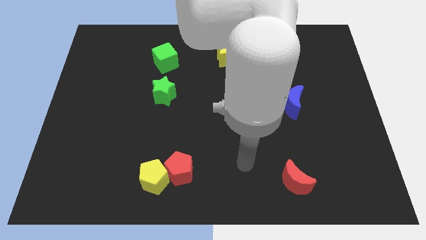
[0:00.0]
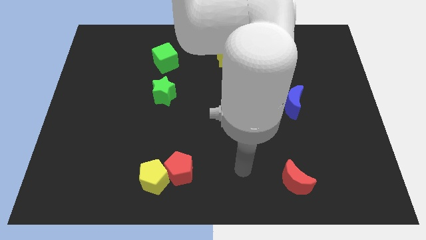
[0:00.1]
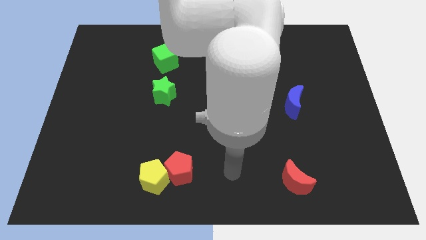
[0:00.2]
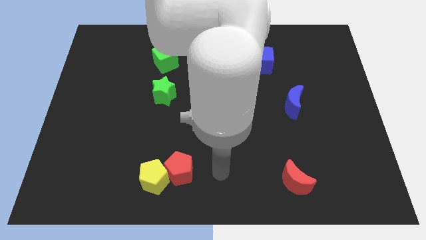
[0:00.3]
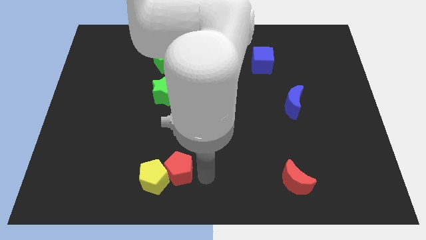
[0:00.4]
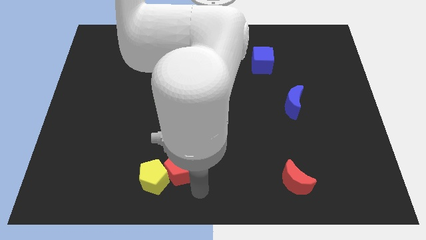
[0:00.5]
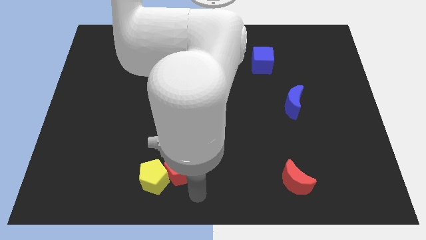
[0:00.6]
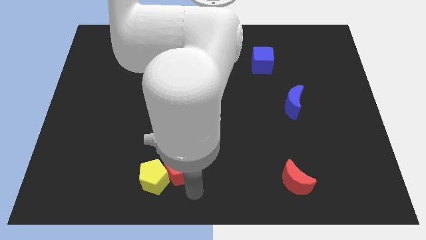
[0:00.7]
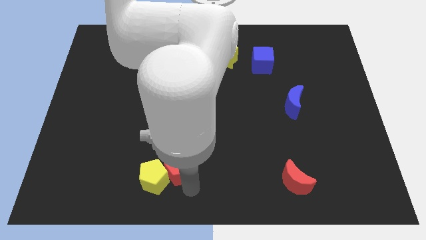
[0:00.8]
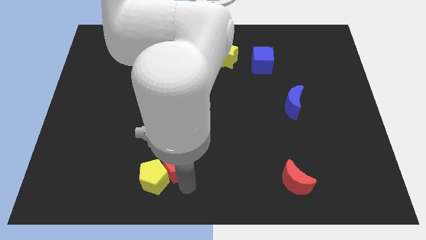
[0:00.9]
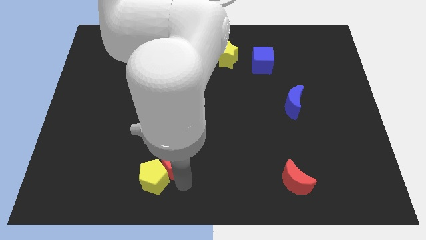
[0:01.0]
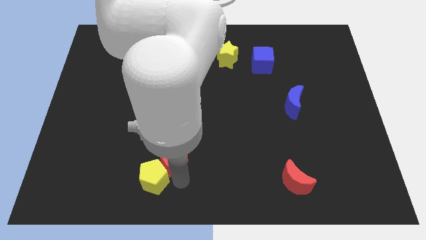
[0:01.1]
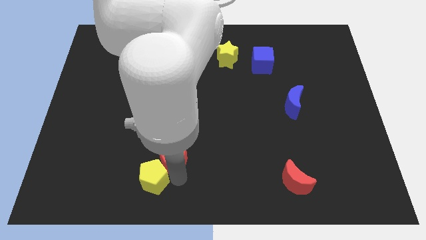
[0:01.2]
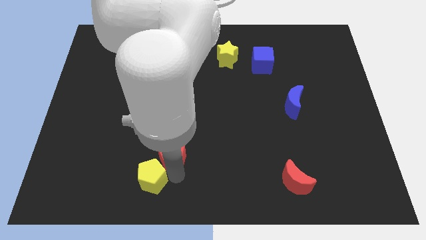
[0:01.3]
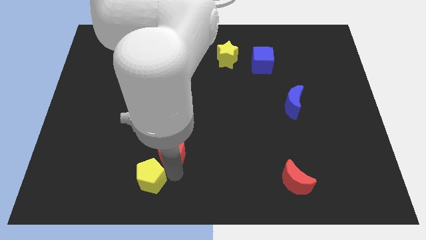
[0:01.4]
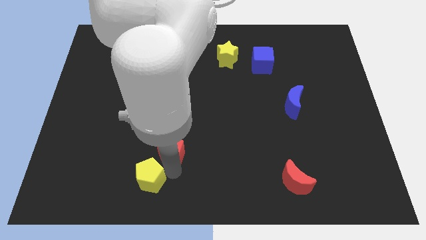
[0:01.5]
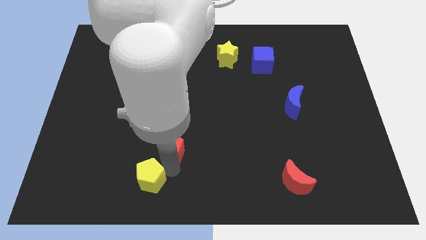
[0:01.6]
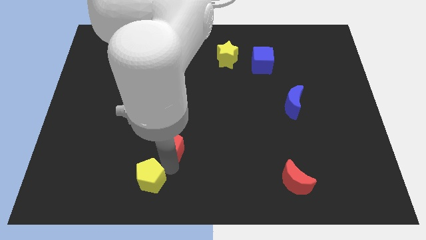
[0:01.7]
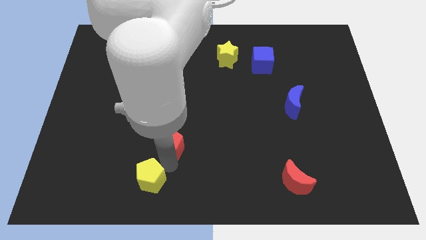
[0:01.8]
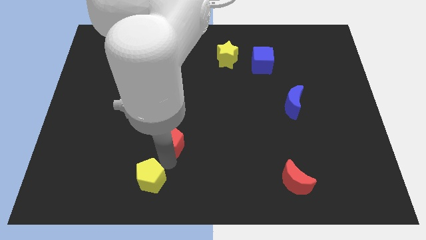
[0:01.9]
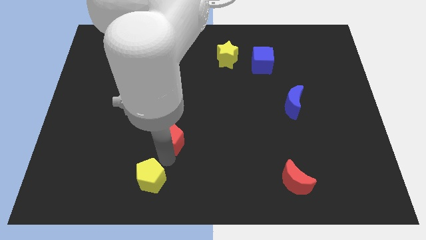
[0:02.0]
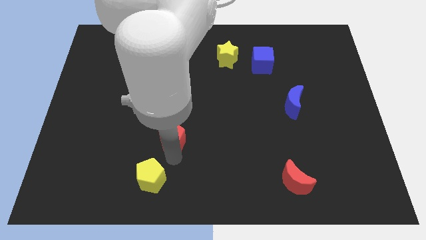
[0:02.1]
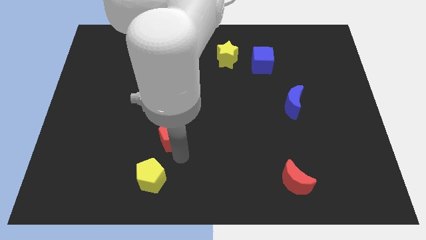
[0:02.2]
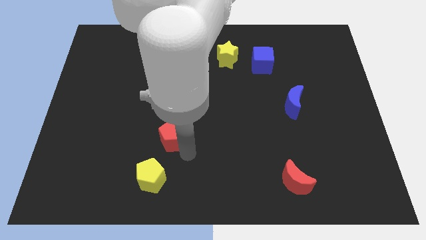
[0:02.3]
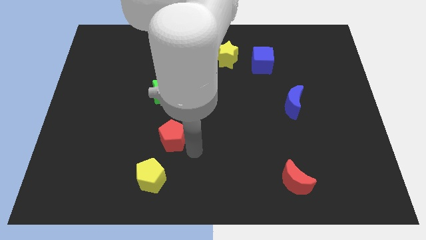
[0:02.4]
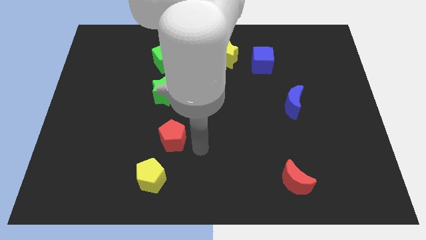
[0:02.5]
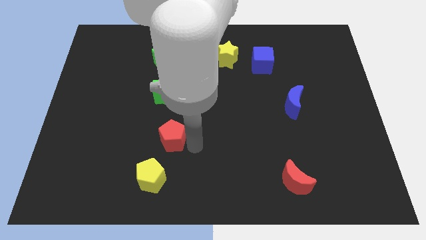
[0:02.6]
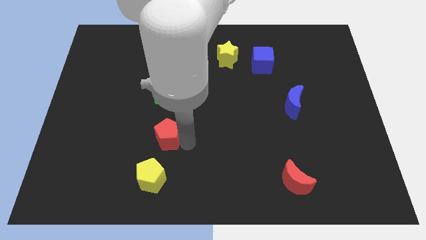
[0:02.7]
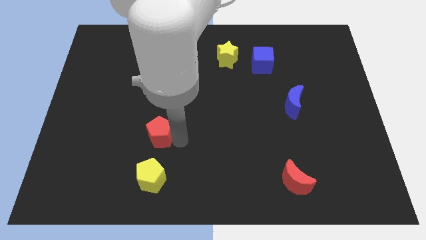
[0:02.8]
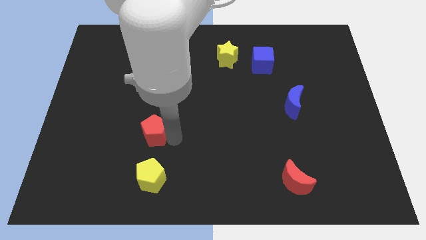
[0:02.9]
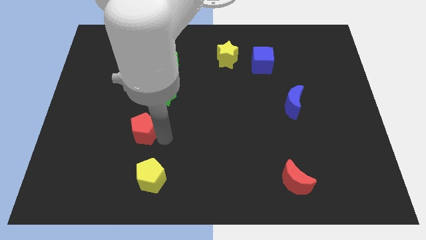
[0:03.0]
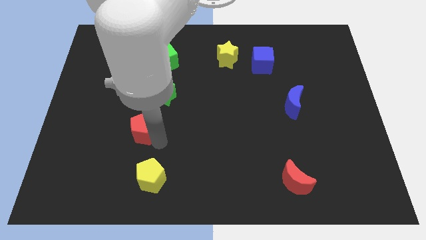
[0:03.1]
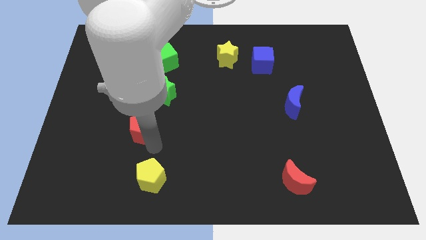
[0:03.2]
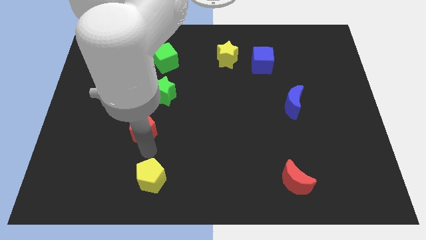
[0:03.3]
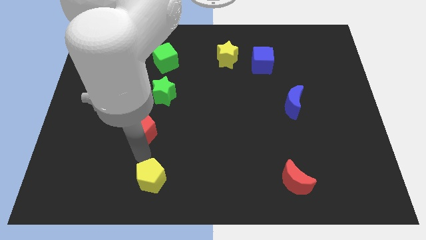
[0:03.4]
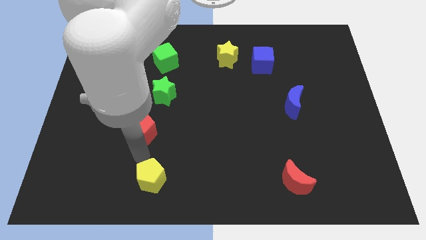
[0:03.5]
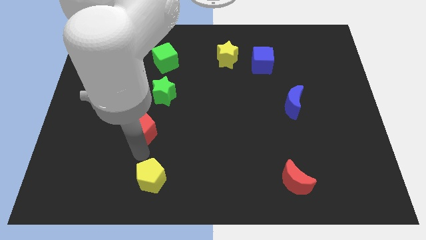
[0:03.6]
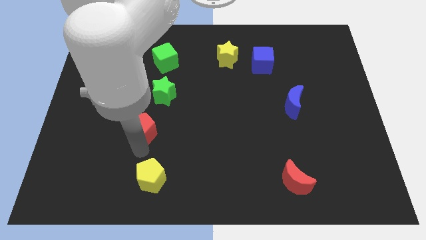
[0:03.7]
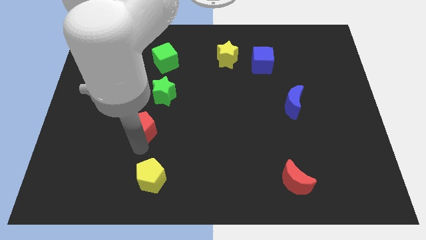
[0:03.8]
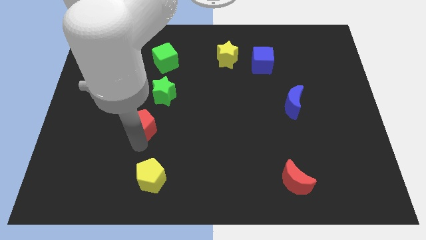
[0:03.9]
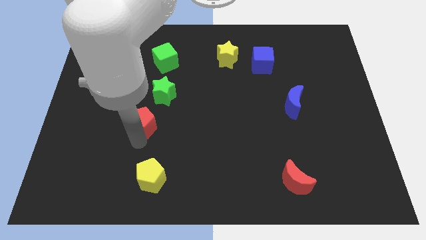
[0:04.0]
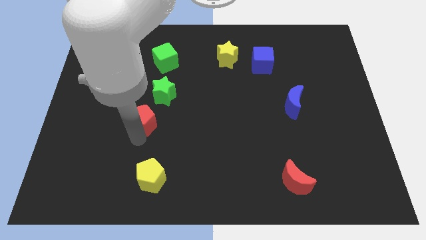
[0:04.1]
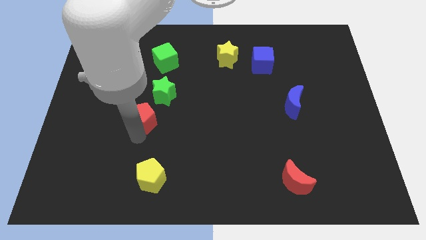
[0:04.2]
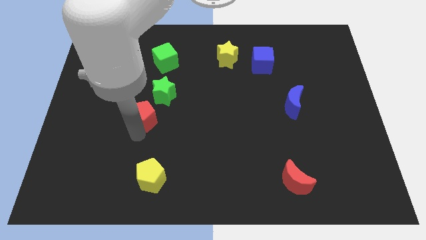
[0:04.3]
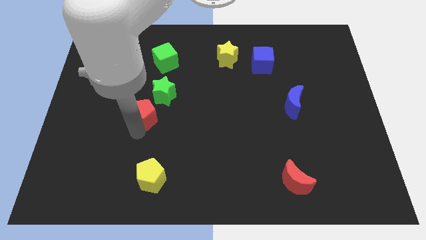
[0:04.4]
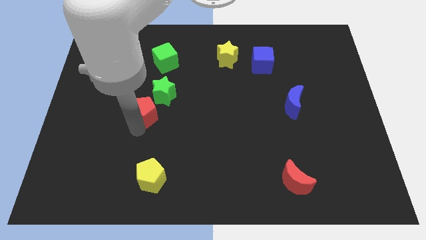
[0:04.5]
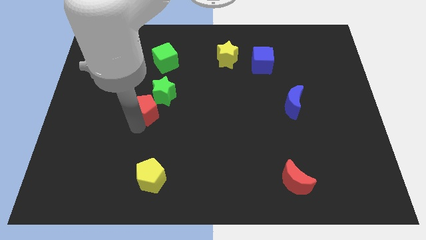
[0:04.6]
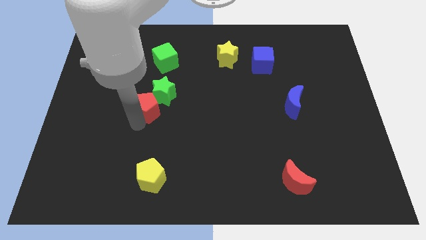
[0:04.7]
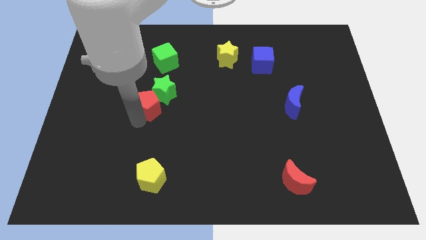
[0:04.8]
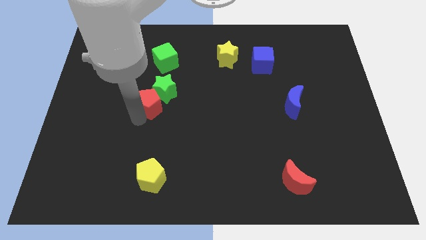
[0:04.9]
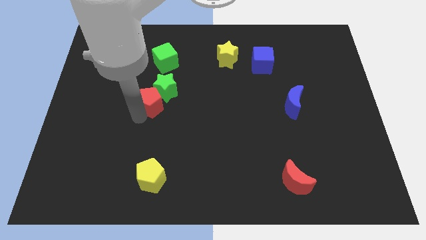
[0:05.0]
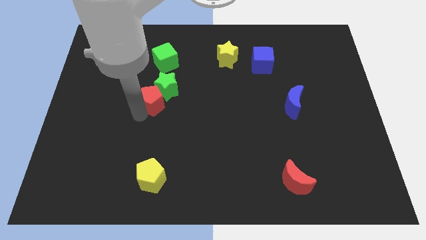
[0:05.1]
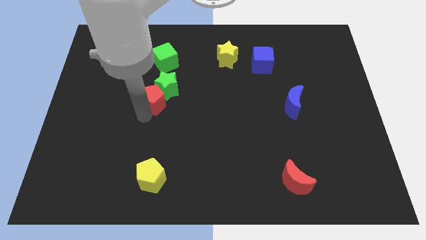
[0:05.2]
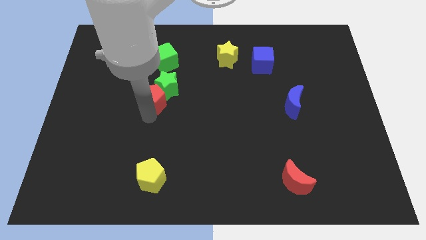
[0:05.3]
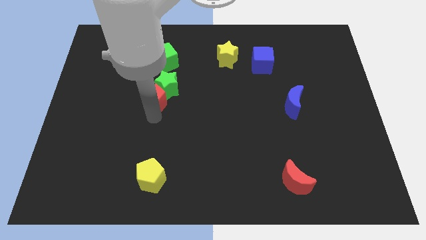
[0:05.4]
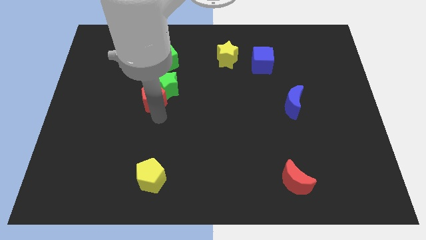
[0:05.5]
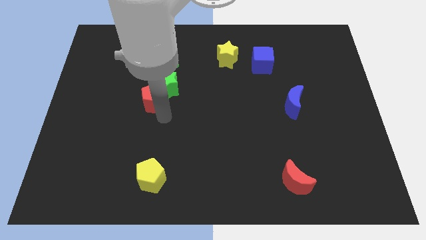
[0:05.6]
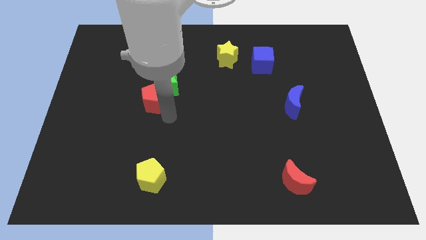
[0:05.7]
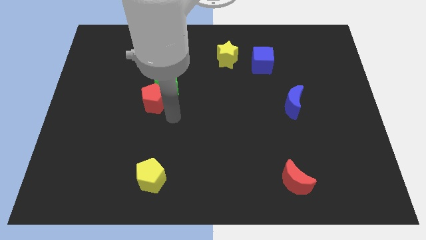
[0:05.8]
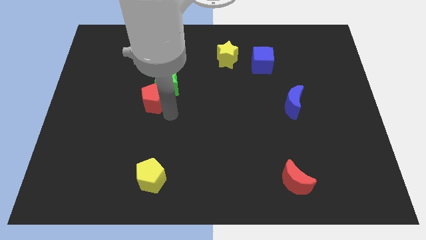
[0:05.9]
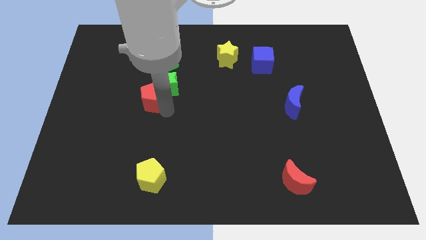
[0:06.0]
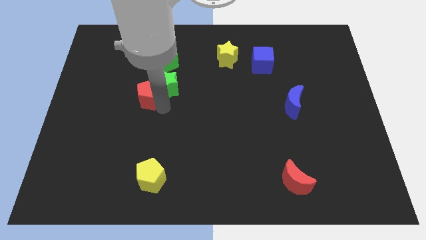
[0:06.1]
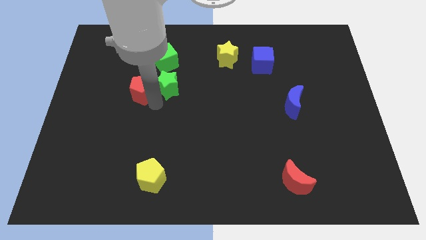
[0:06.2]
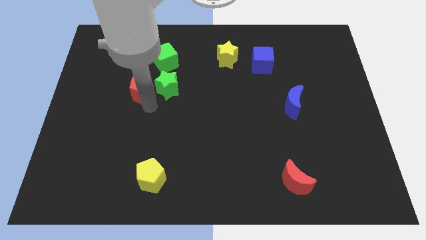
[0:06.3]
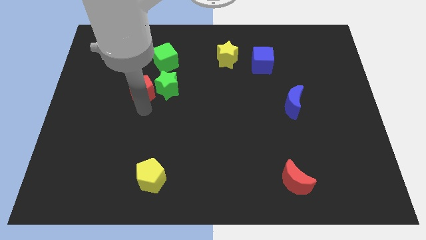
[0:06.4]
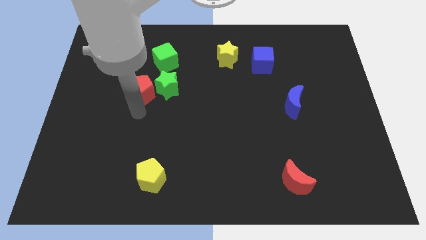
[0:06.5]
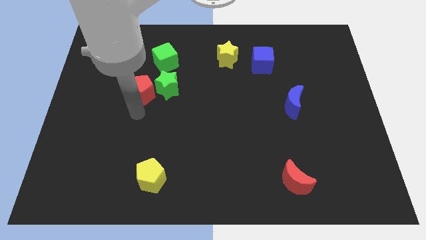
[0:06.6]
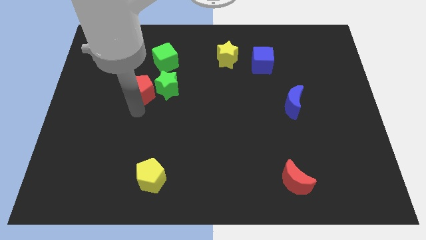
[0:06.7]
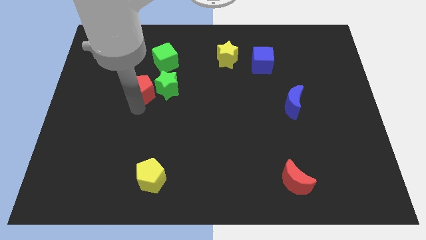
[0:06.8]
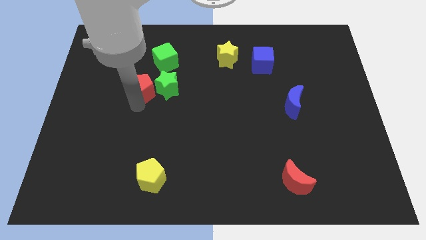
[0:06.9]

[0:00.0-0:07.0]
move the red pentagon to the top left of the green star
